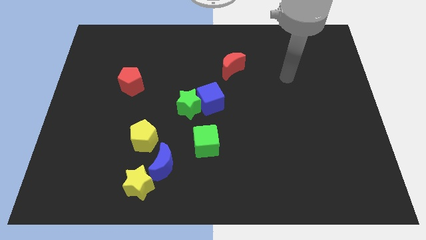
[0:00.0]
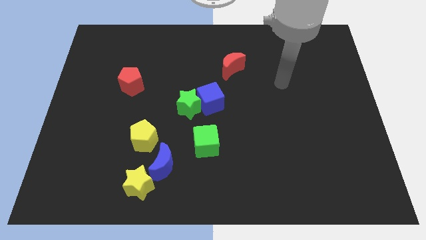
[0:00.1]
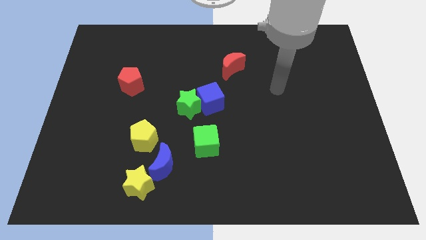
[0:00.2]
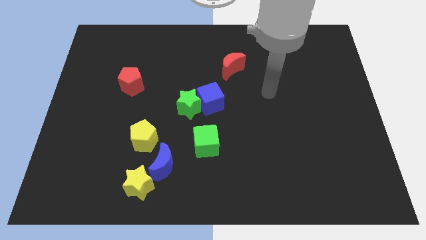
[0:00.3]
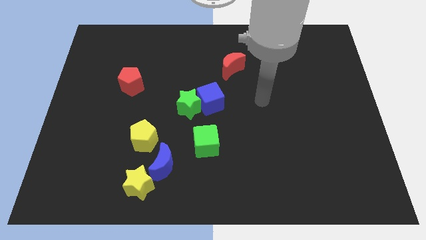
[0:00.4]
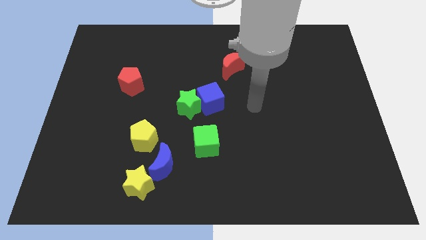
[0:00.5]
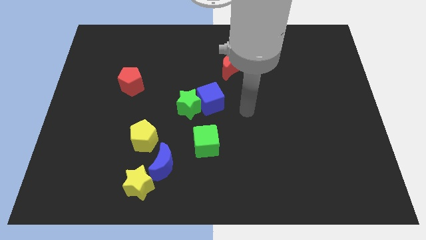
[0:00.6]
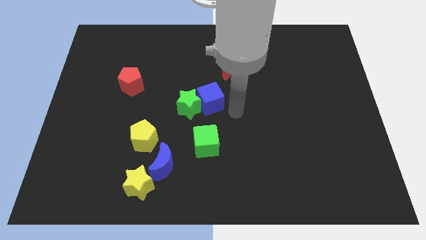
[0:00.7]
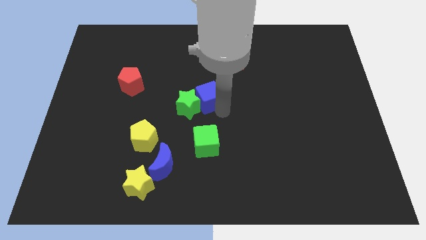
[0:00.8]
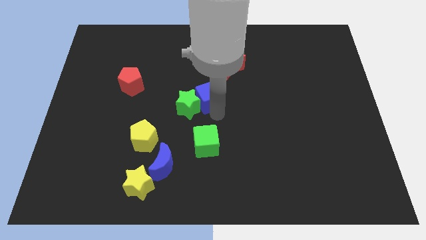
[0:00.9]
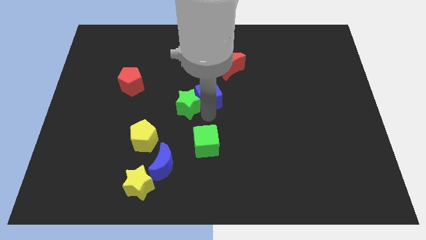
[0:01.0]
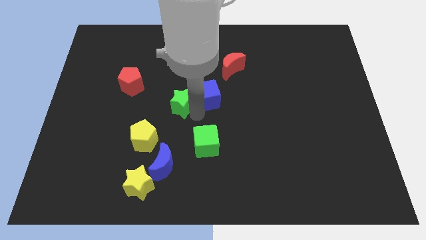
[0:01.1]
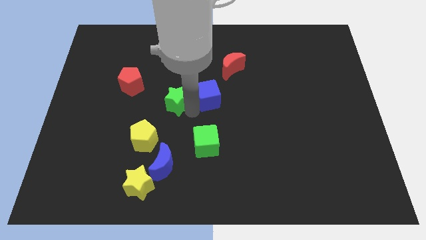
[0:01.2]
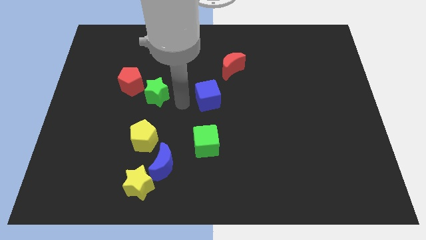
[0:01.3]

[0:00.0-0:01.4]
separate the blue cube from the green star

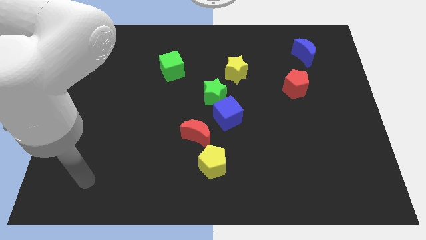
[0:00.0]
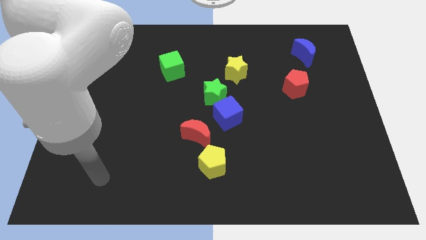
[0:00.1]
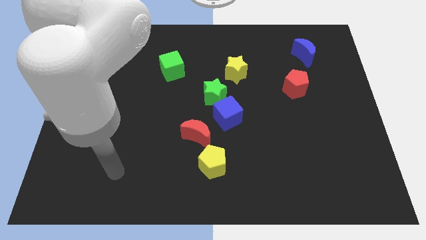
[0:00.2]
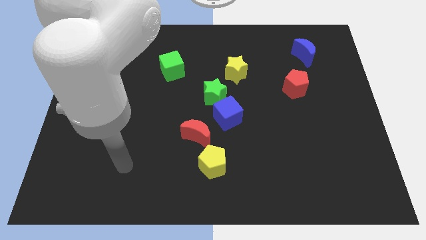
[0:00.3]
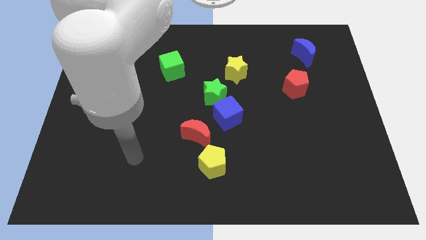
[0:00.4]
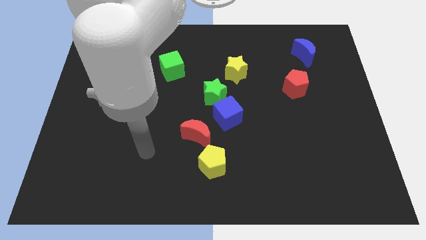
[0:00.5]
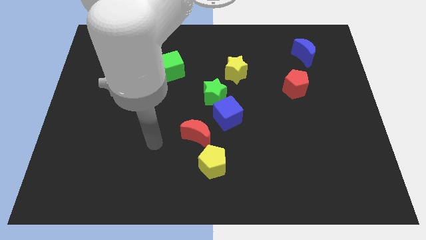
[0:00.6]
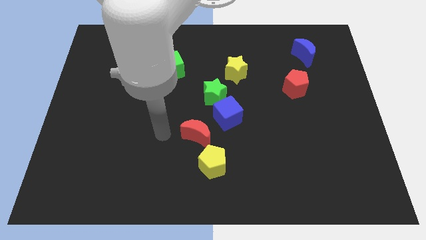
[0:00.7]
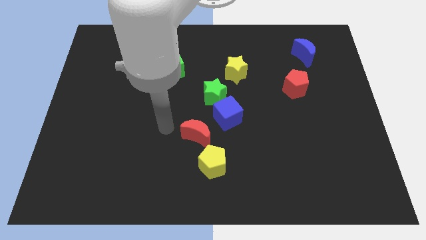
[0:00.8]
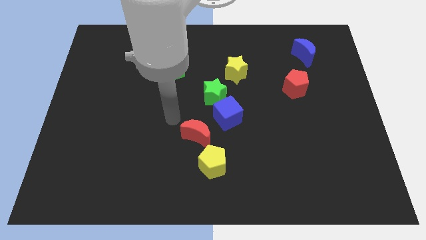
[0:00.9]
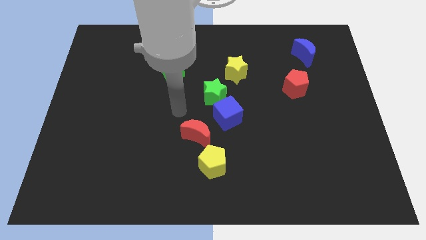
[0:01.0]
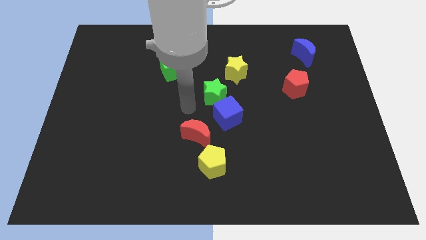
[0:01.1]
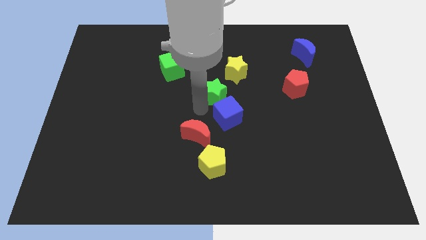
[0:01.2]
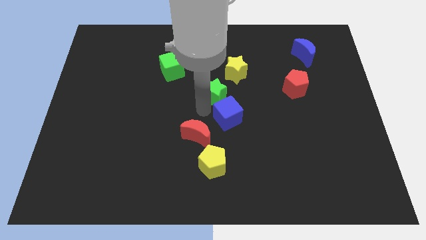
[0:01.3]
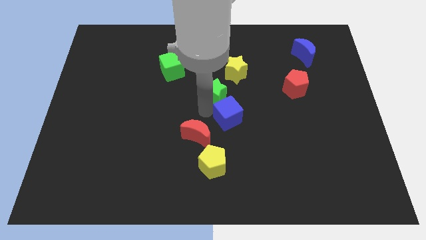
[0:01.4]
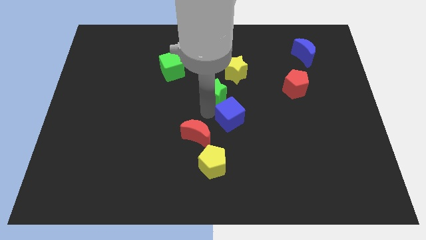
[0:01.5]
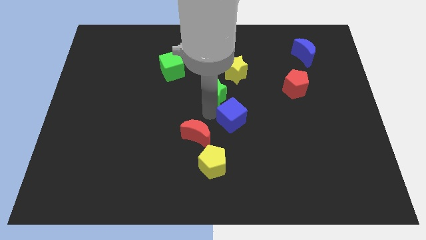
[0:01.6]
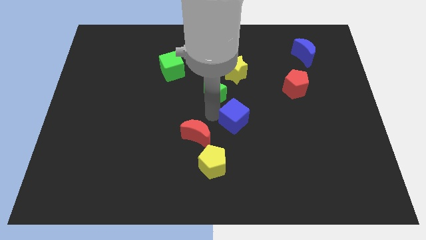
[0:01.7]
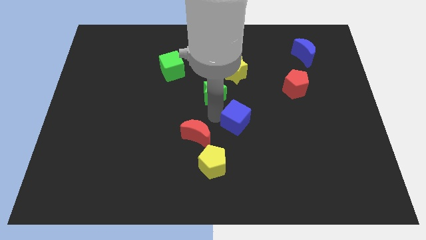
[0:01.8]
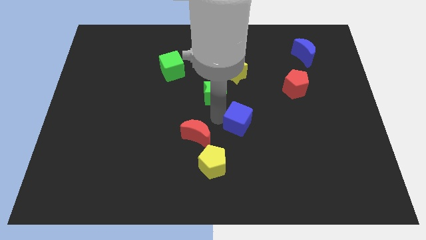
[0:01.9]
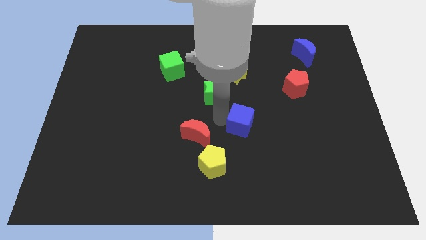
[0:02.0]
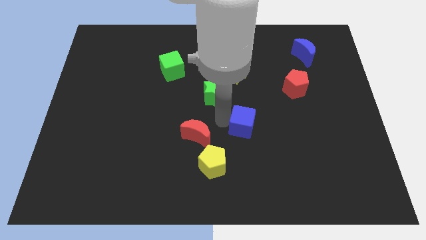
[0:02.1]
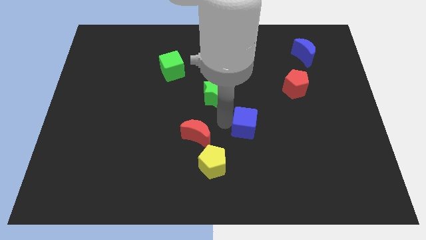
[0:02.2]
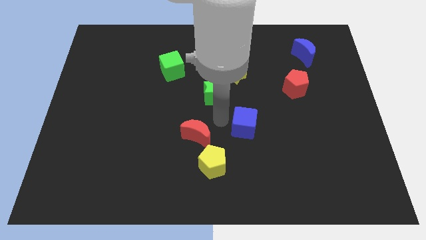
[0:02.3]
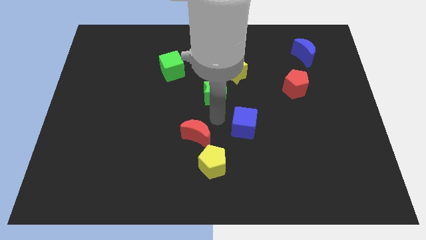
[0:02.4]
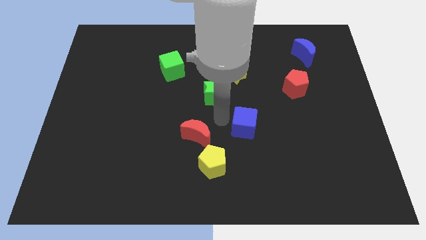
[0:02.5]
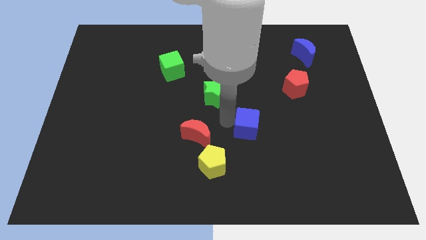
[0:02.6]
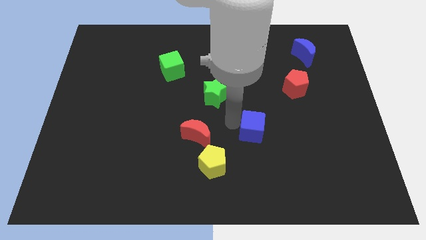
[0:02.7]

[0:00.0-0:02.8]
separate the blue cube from the green star and red moon

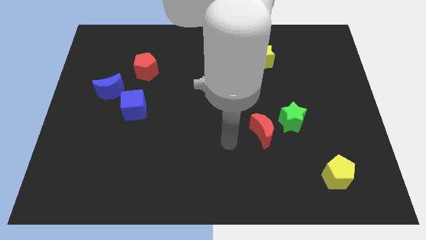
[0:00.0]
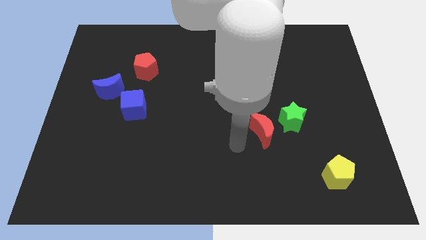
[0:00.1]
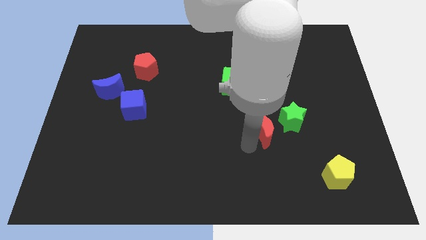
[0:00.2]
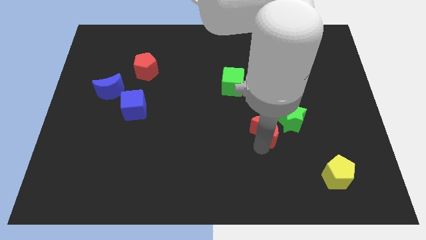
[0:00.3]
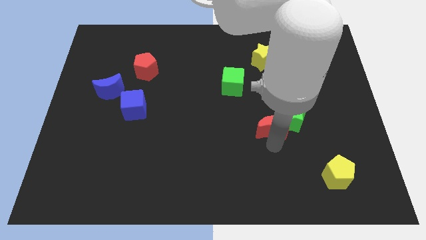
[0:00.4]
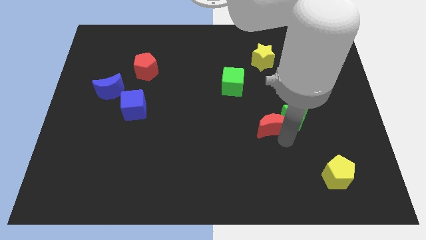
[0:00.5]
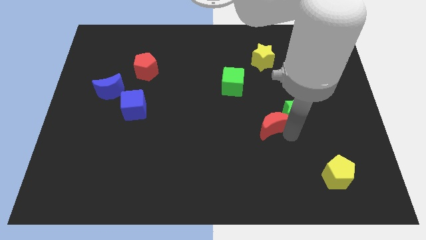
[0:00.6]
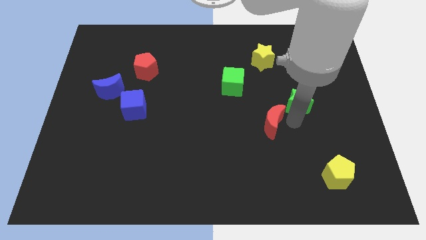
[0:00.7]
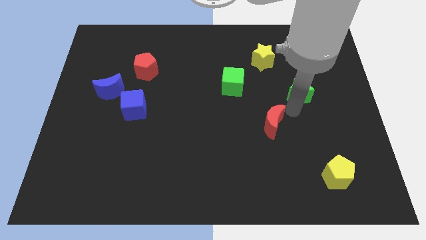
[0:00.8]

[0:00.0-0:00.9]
move the red moon away from the green star

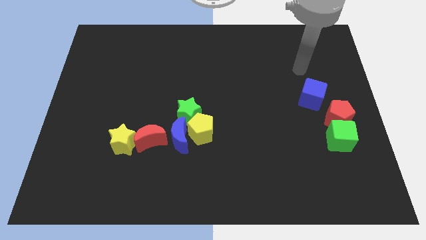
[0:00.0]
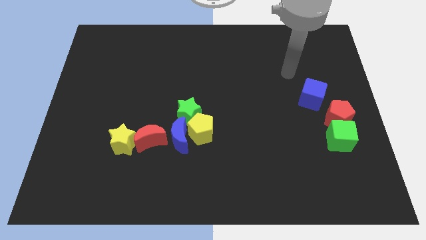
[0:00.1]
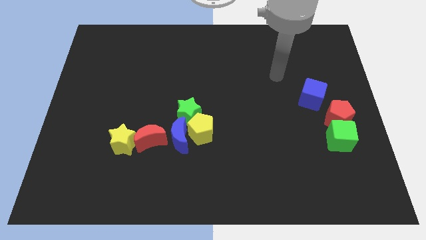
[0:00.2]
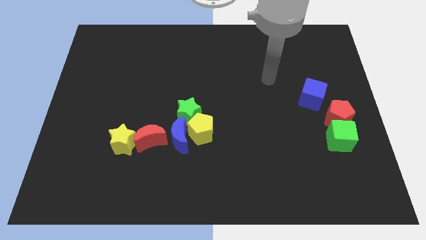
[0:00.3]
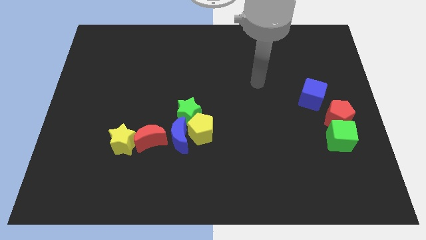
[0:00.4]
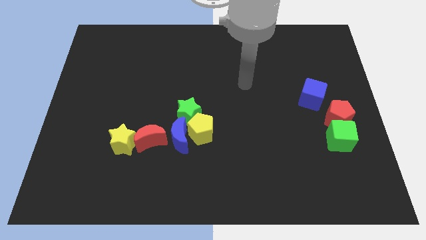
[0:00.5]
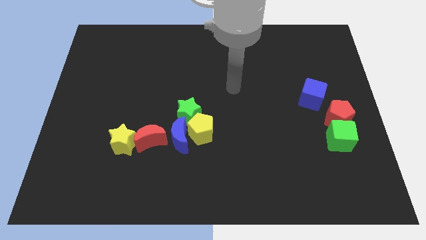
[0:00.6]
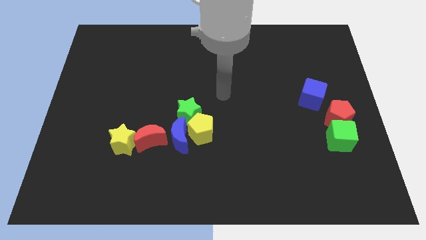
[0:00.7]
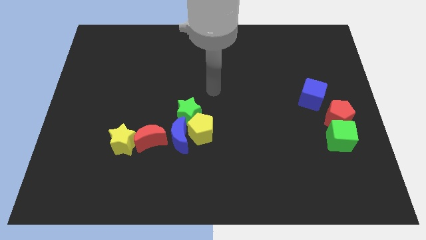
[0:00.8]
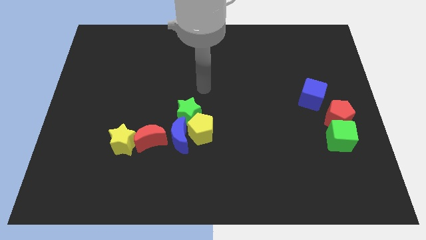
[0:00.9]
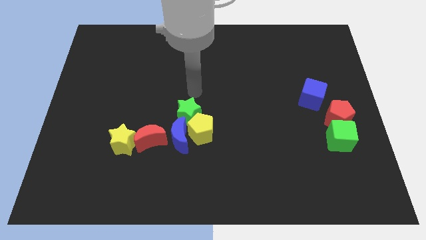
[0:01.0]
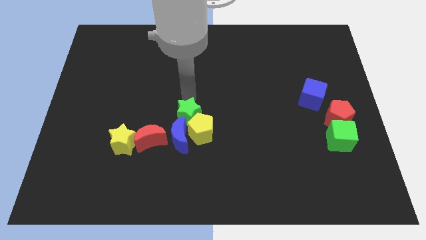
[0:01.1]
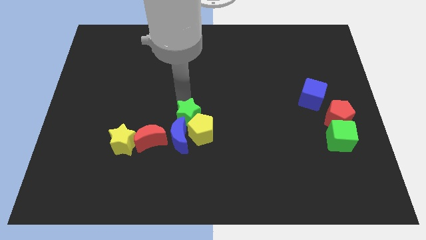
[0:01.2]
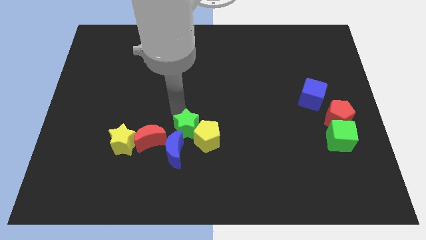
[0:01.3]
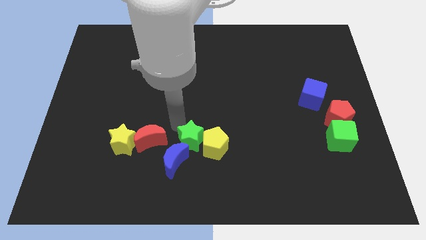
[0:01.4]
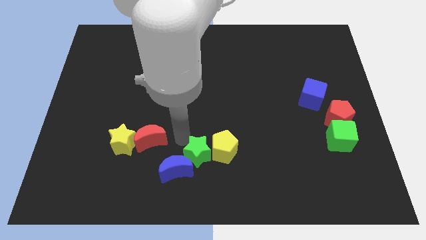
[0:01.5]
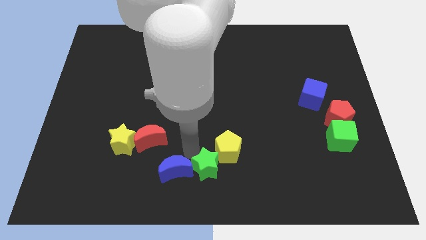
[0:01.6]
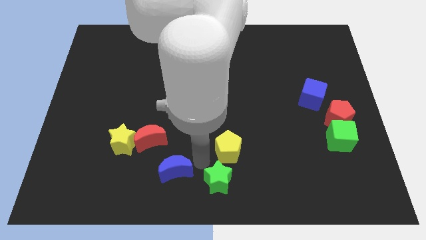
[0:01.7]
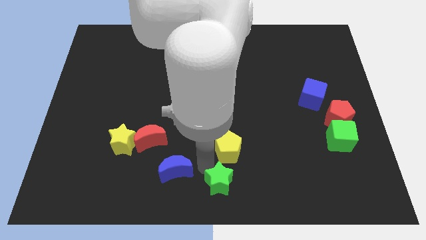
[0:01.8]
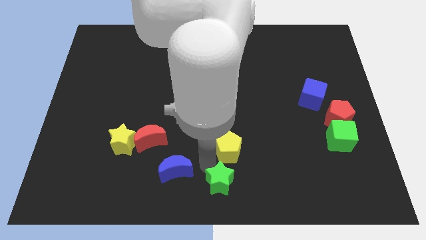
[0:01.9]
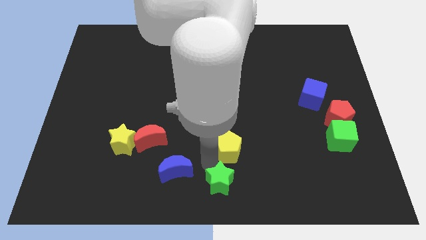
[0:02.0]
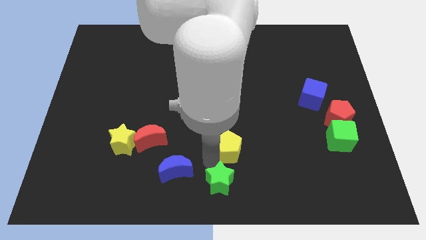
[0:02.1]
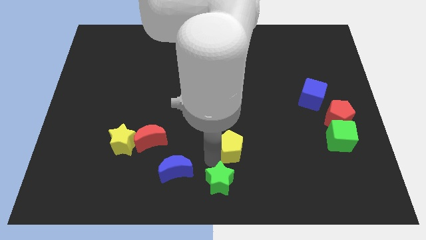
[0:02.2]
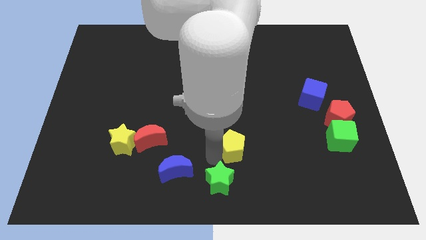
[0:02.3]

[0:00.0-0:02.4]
pull the yellow pentagon apart from the blue moon and green star

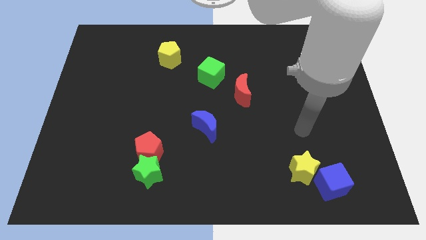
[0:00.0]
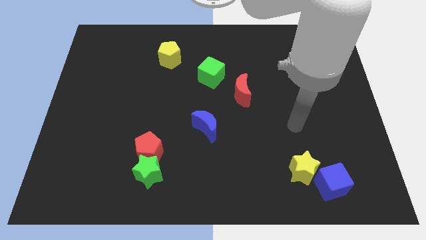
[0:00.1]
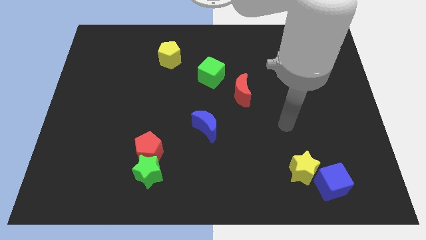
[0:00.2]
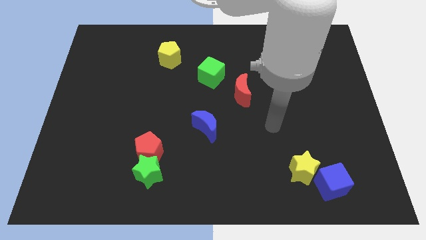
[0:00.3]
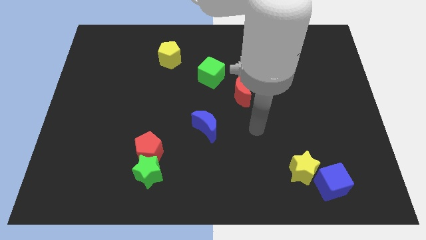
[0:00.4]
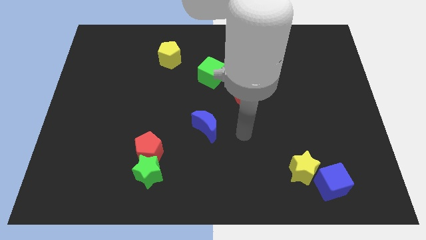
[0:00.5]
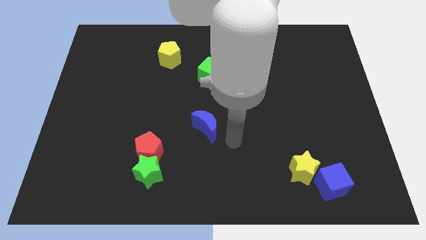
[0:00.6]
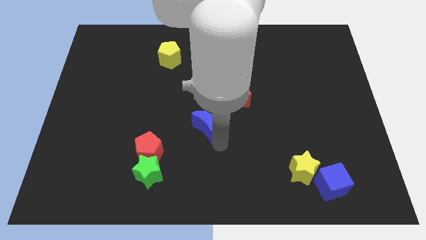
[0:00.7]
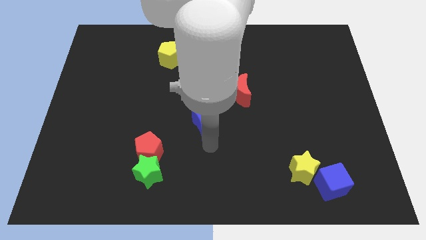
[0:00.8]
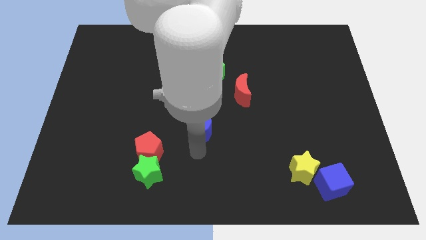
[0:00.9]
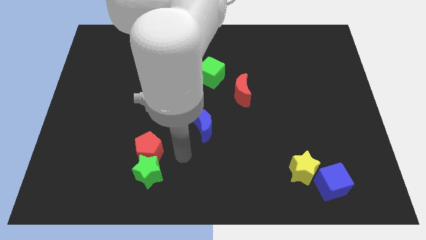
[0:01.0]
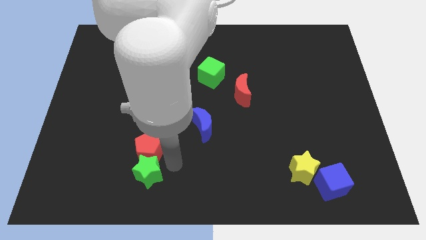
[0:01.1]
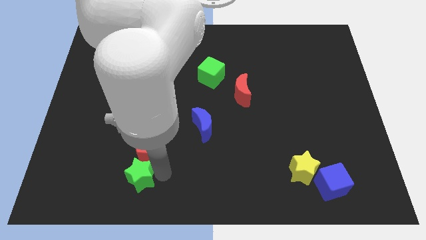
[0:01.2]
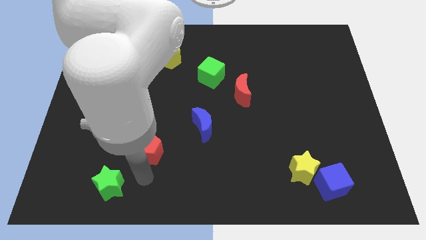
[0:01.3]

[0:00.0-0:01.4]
move the red pentagon away from the green star

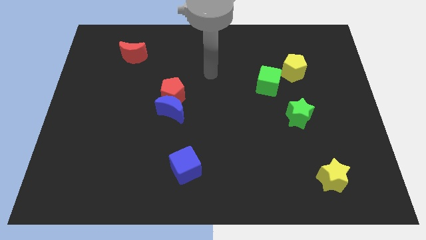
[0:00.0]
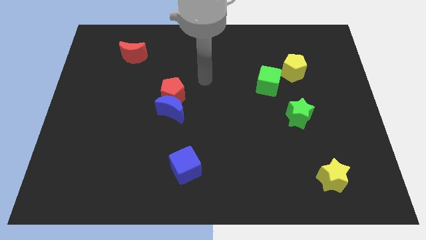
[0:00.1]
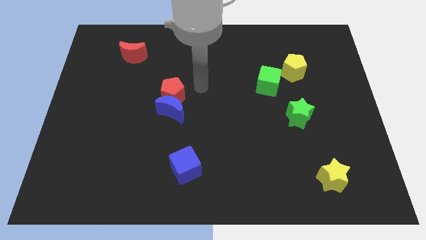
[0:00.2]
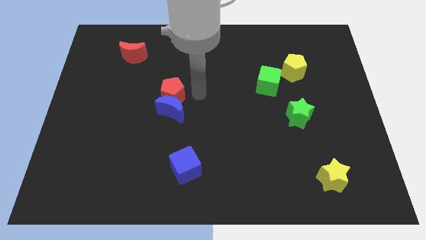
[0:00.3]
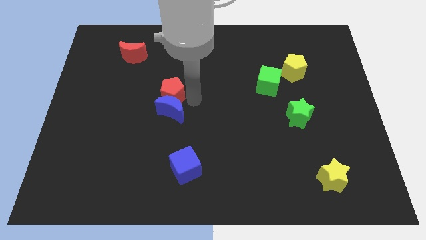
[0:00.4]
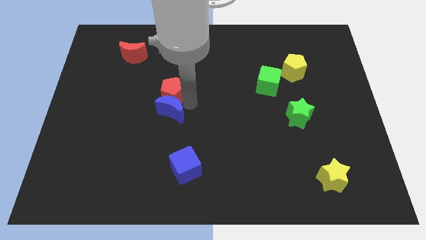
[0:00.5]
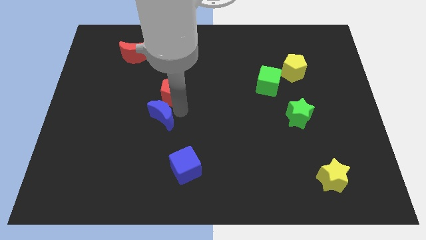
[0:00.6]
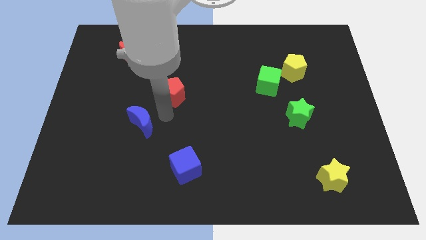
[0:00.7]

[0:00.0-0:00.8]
pull the red pentagon apart from the blue moon
